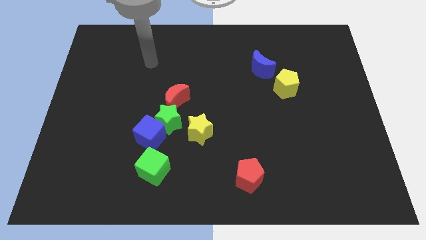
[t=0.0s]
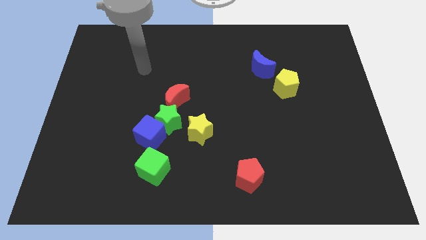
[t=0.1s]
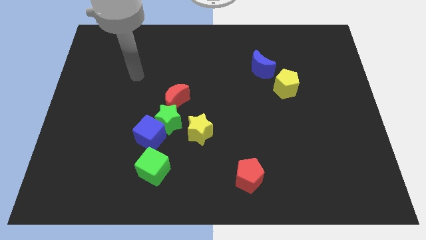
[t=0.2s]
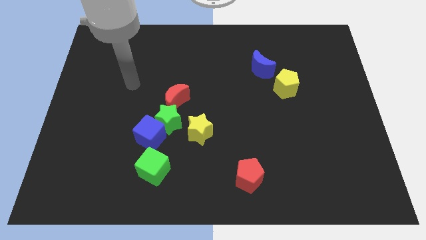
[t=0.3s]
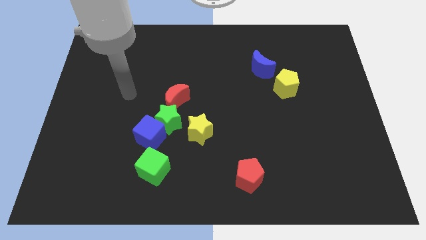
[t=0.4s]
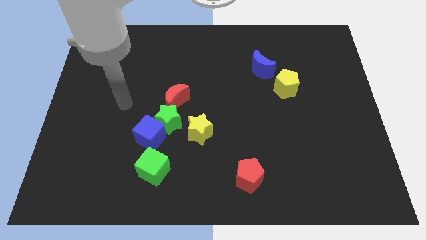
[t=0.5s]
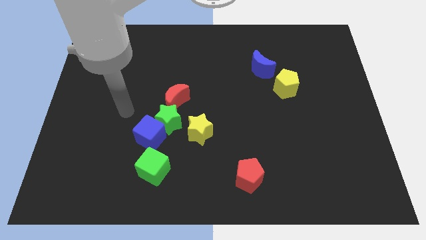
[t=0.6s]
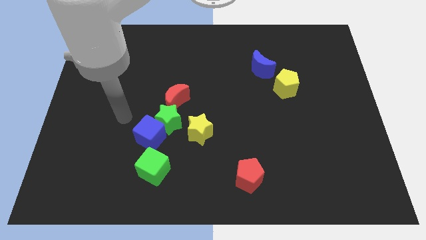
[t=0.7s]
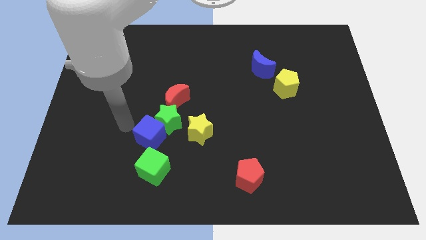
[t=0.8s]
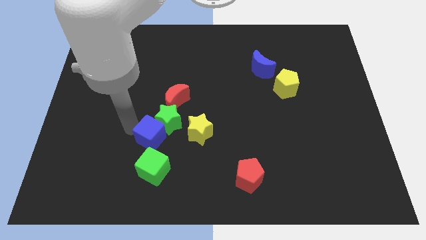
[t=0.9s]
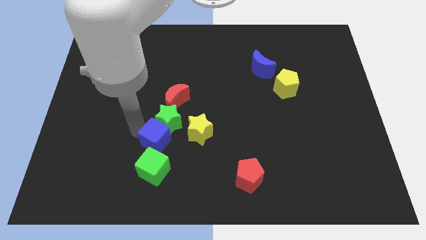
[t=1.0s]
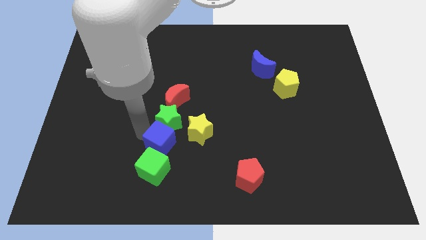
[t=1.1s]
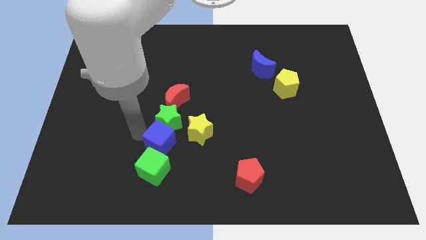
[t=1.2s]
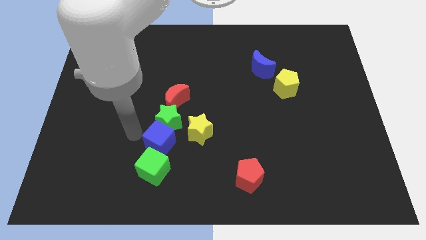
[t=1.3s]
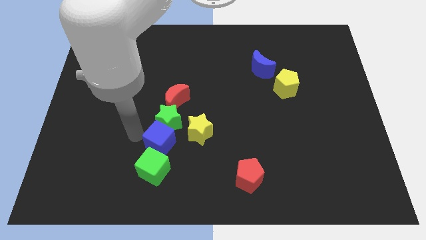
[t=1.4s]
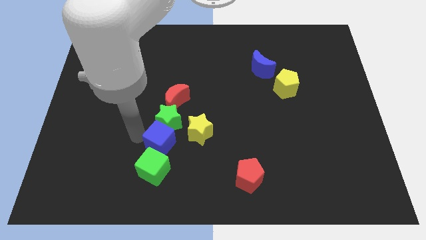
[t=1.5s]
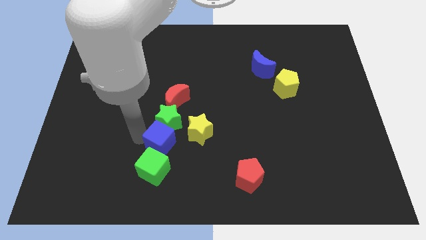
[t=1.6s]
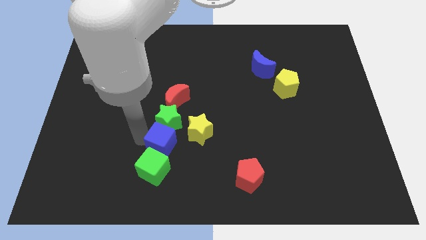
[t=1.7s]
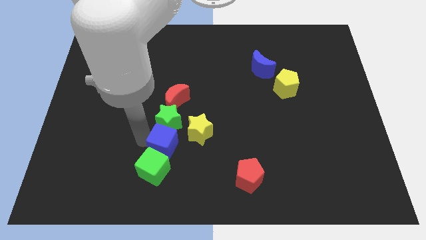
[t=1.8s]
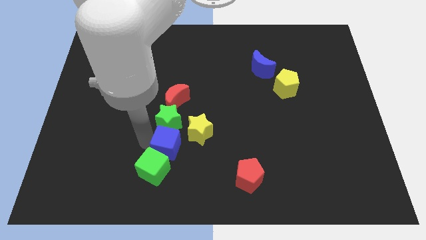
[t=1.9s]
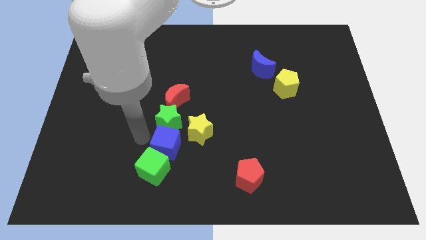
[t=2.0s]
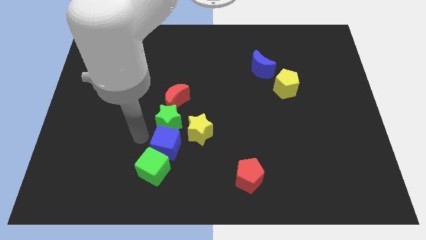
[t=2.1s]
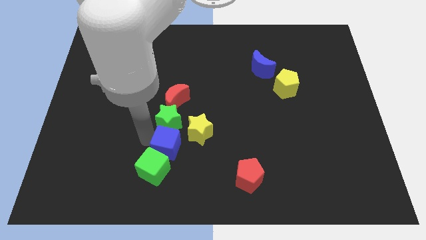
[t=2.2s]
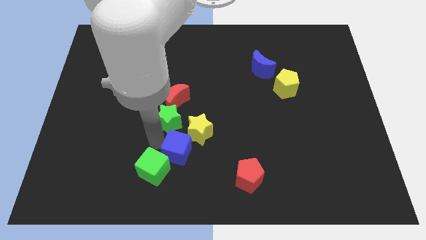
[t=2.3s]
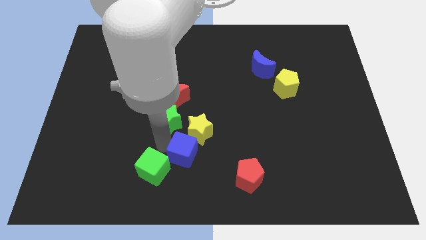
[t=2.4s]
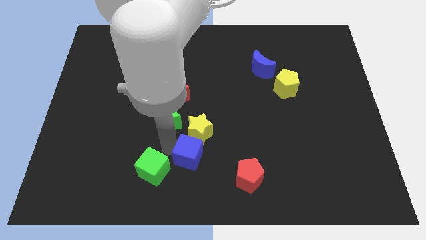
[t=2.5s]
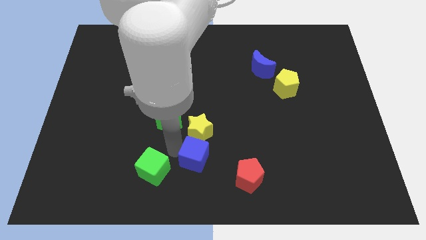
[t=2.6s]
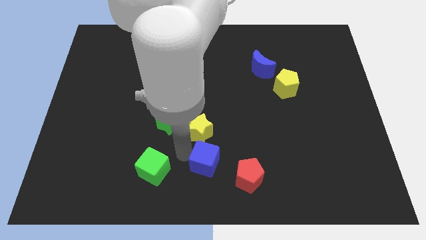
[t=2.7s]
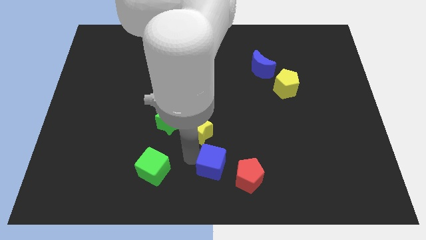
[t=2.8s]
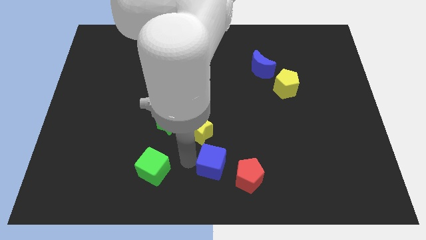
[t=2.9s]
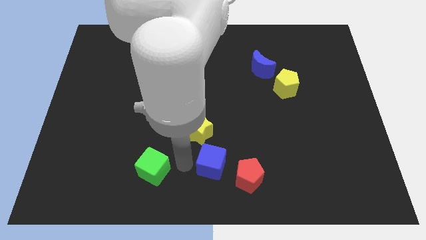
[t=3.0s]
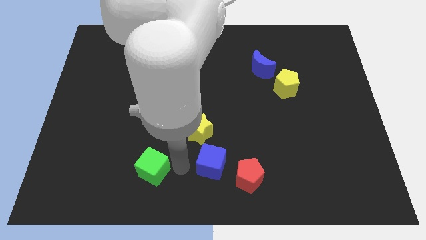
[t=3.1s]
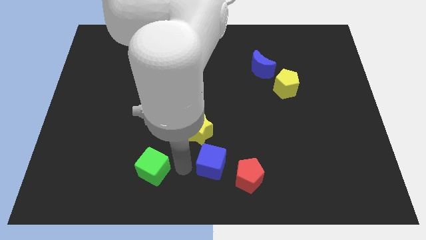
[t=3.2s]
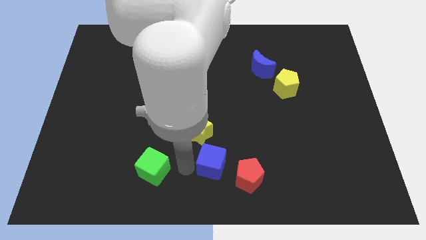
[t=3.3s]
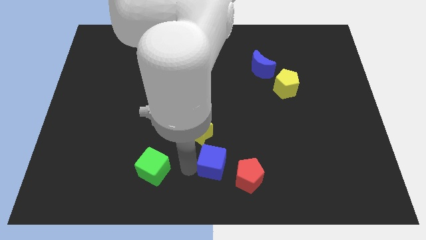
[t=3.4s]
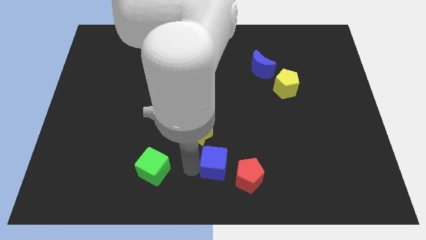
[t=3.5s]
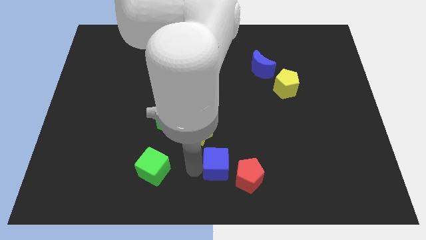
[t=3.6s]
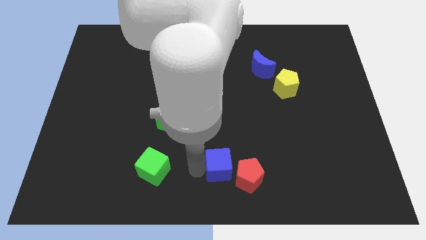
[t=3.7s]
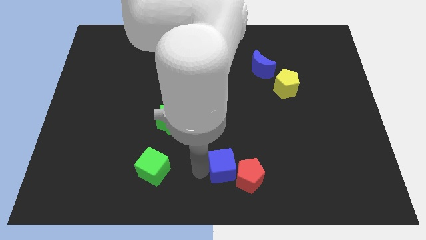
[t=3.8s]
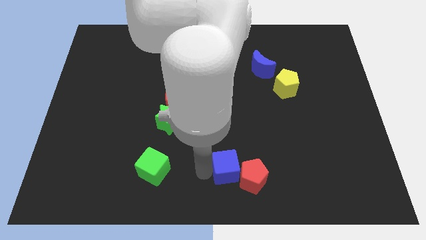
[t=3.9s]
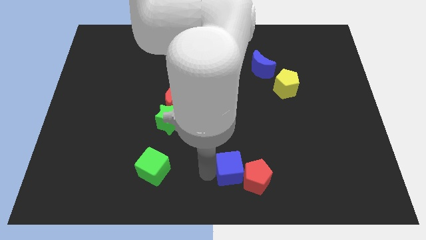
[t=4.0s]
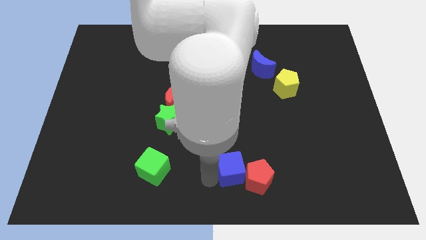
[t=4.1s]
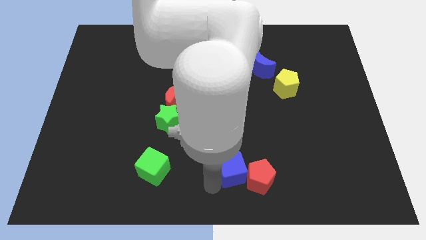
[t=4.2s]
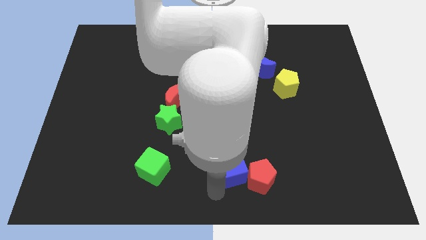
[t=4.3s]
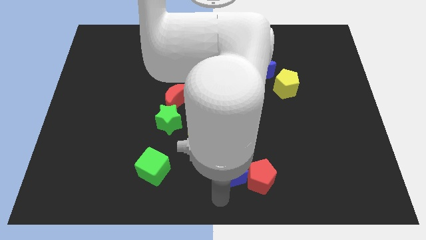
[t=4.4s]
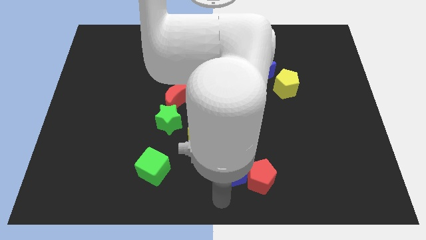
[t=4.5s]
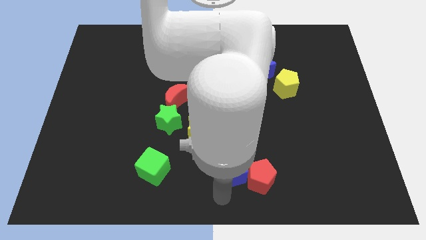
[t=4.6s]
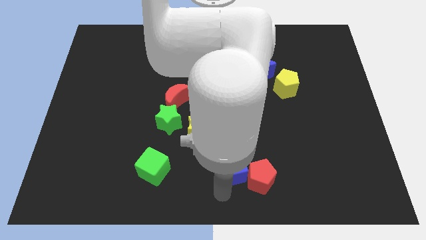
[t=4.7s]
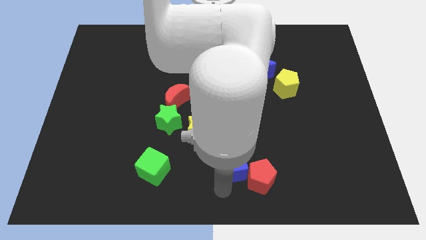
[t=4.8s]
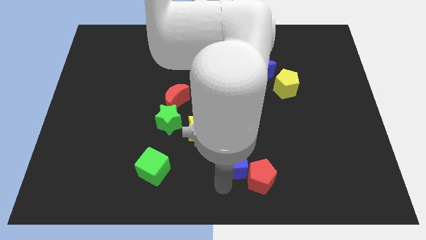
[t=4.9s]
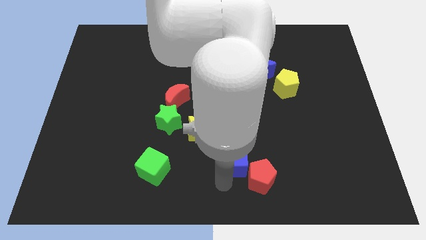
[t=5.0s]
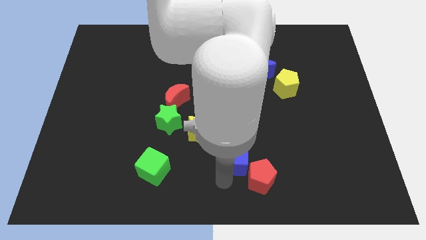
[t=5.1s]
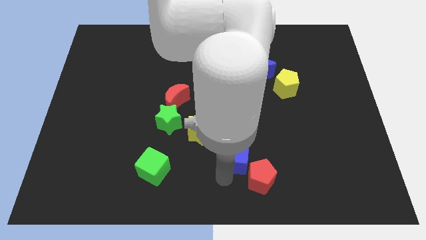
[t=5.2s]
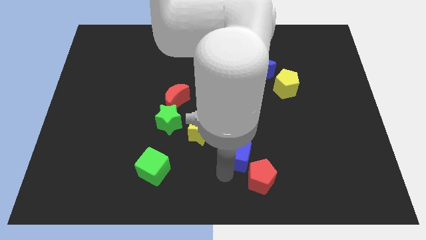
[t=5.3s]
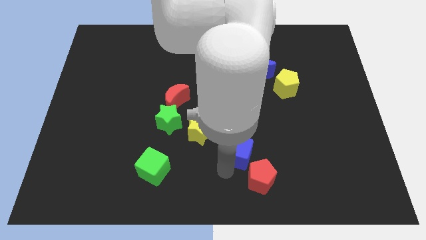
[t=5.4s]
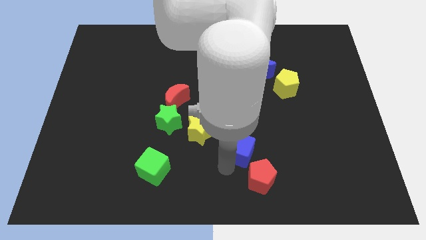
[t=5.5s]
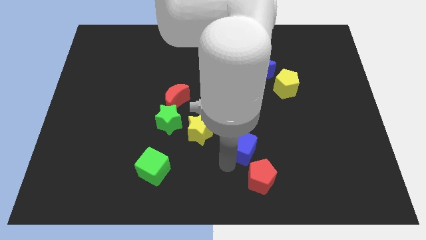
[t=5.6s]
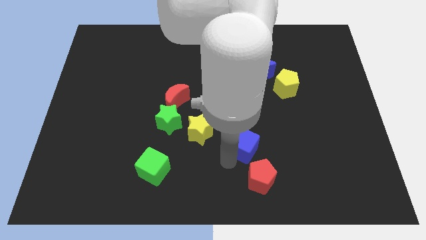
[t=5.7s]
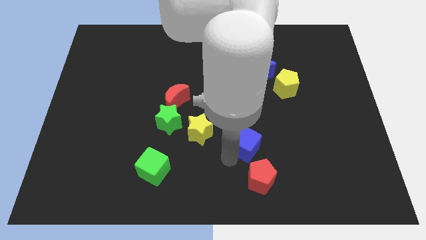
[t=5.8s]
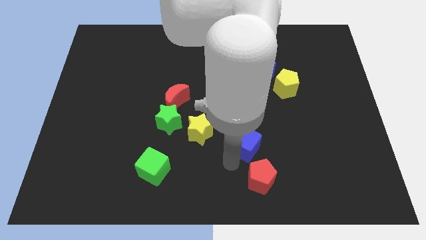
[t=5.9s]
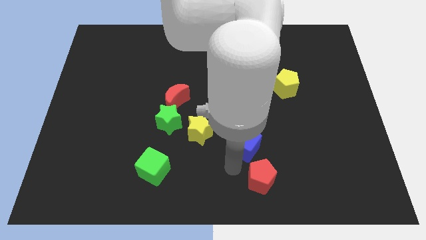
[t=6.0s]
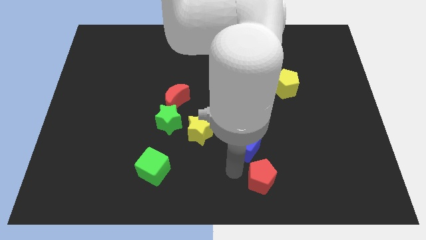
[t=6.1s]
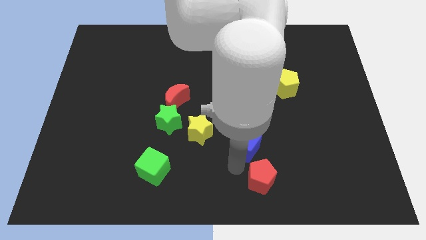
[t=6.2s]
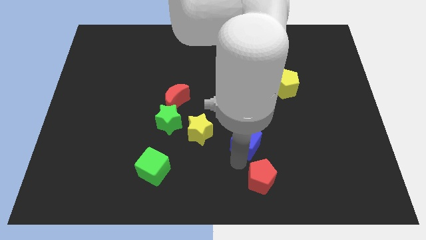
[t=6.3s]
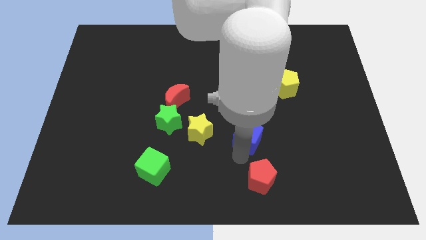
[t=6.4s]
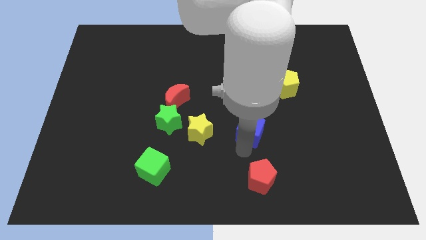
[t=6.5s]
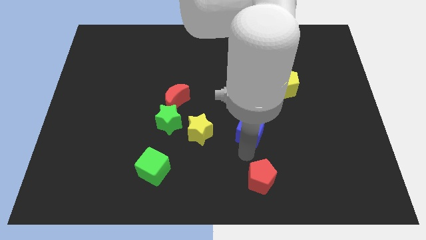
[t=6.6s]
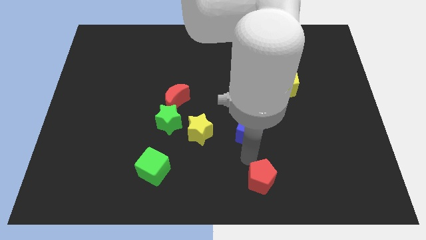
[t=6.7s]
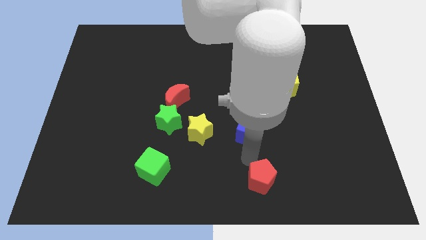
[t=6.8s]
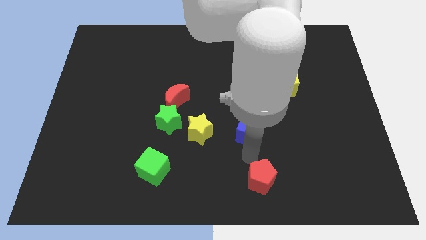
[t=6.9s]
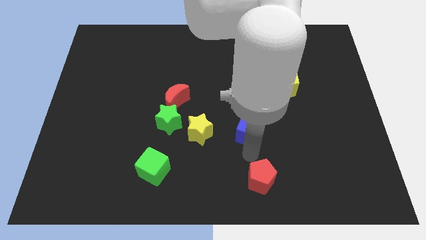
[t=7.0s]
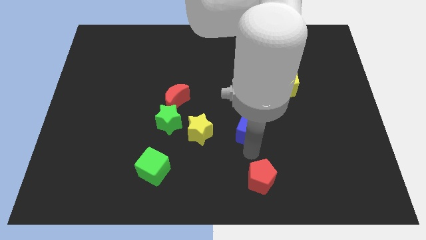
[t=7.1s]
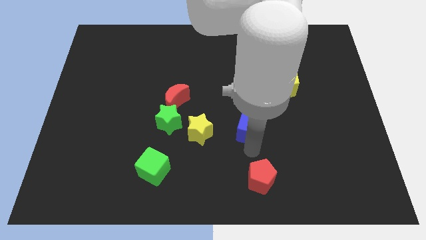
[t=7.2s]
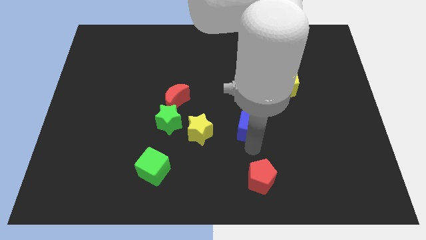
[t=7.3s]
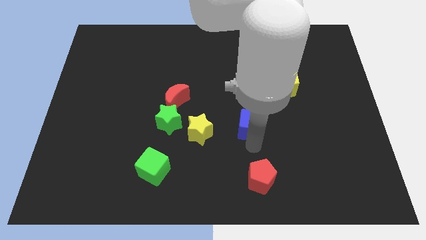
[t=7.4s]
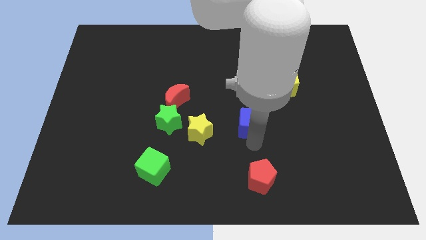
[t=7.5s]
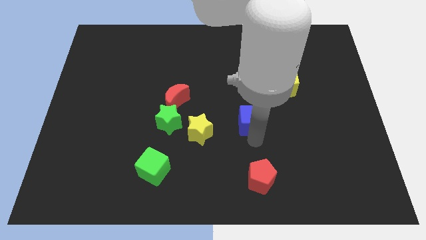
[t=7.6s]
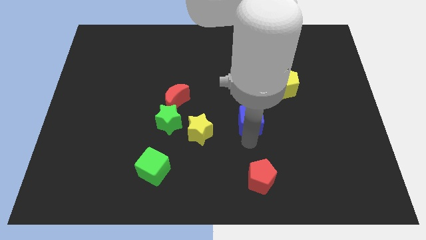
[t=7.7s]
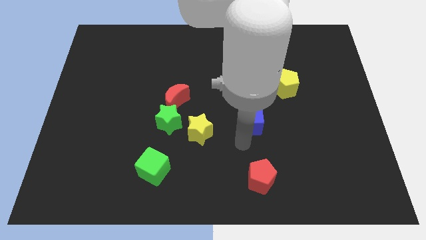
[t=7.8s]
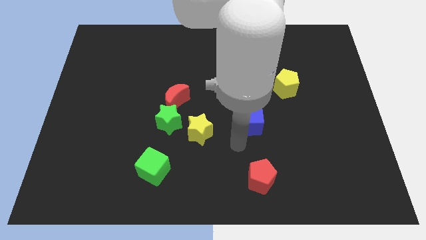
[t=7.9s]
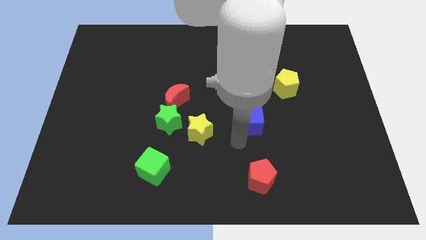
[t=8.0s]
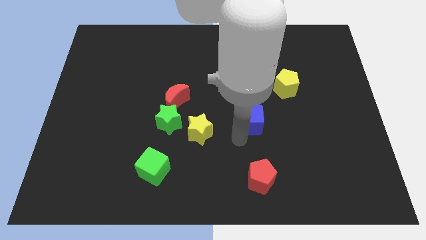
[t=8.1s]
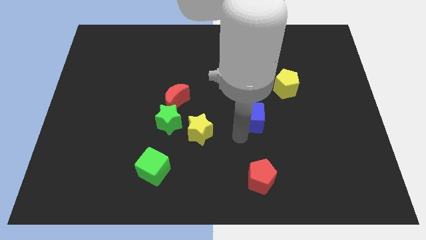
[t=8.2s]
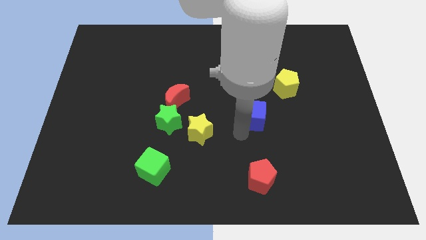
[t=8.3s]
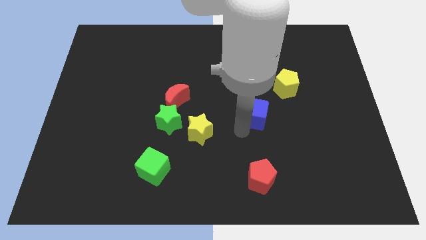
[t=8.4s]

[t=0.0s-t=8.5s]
push the blue cube to the bottom side of the blue moon
